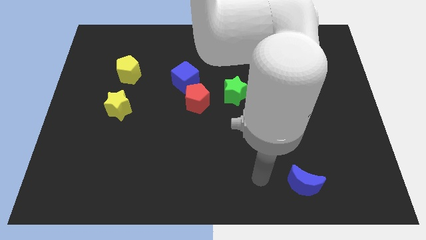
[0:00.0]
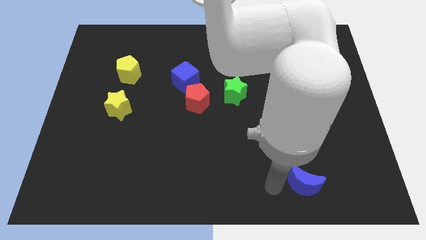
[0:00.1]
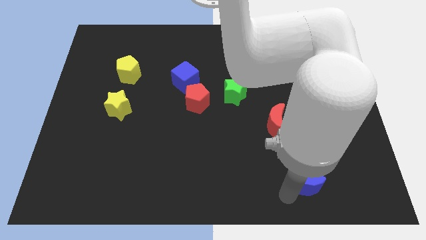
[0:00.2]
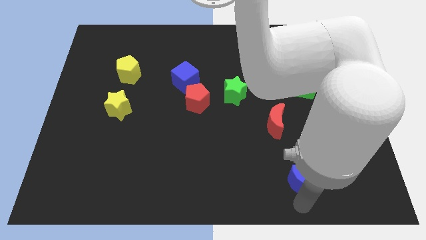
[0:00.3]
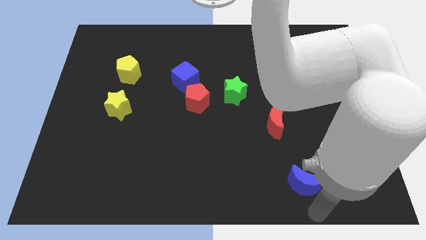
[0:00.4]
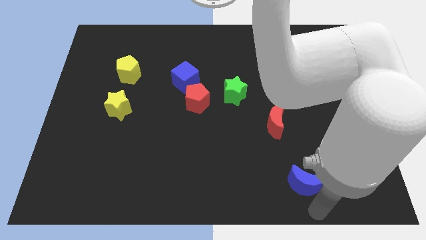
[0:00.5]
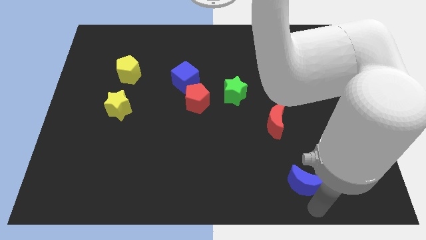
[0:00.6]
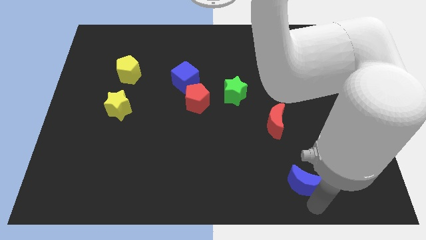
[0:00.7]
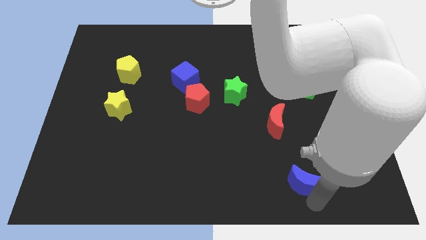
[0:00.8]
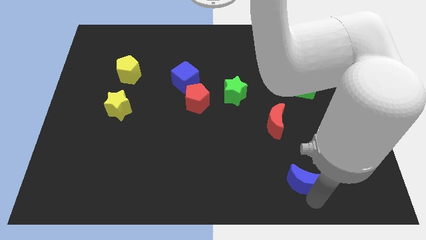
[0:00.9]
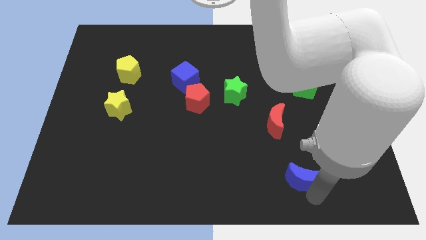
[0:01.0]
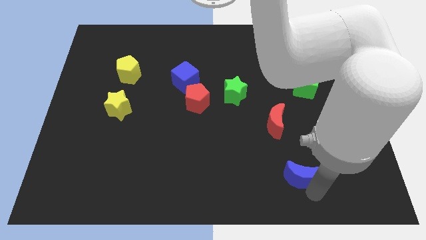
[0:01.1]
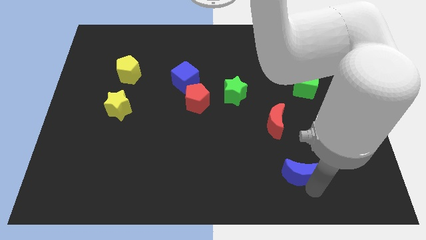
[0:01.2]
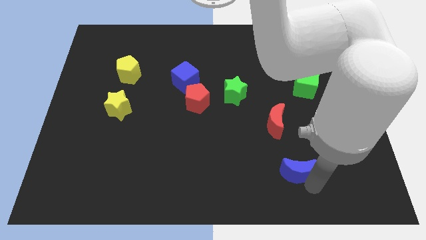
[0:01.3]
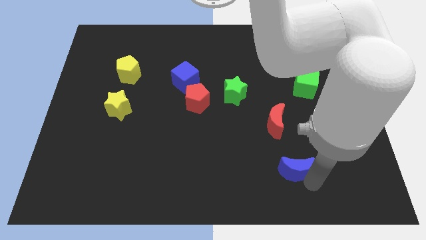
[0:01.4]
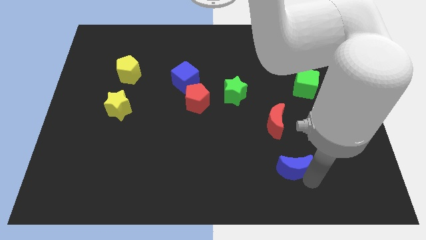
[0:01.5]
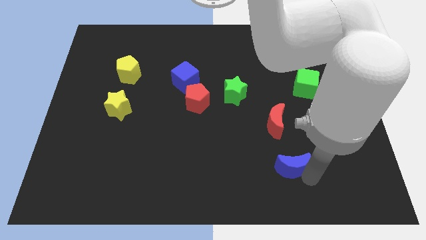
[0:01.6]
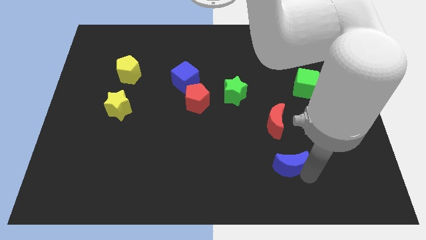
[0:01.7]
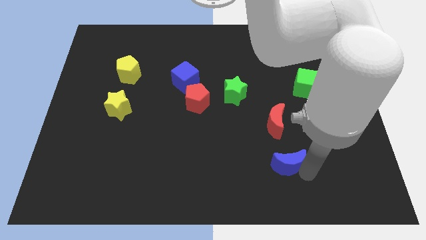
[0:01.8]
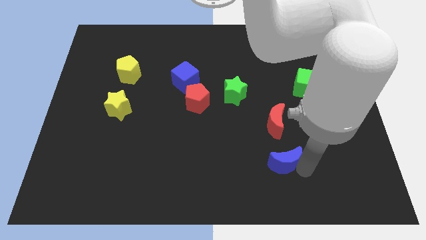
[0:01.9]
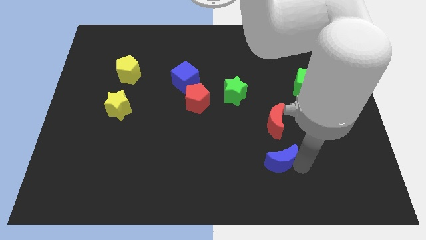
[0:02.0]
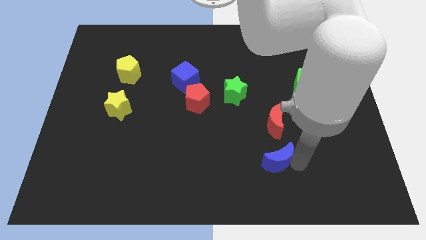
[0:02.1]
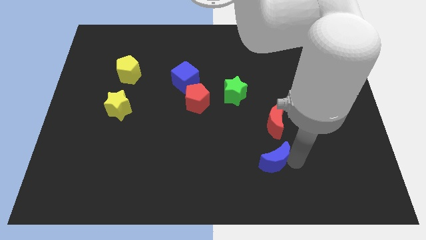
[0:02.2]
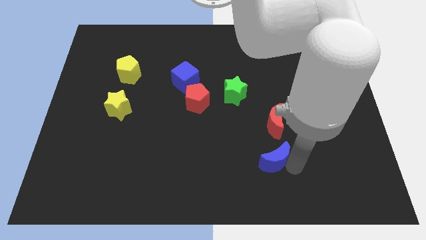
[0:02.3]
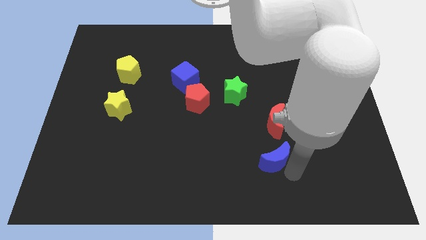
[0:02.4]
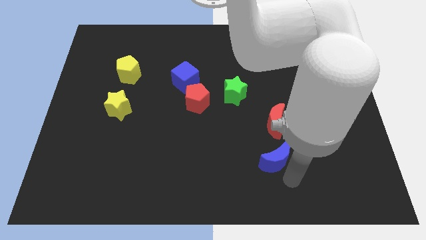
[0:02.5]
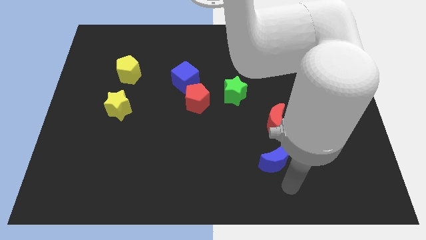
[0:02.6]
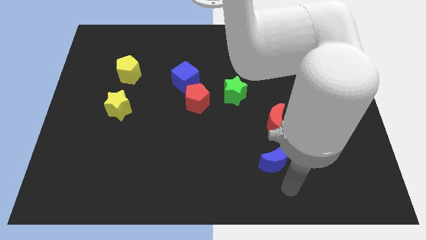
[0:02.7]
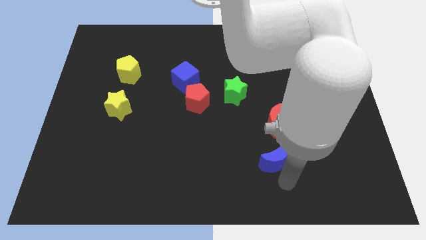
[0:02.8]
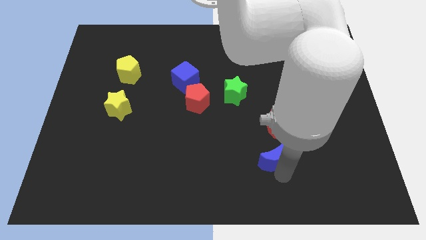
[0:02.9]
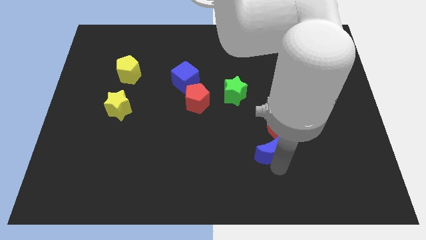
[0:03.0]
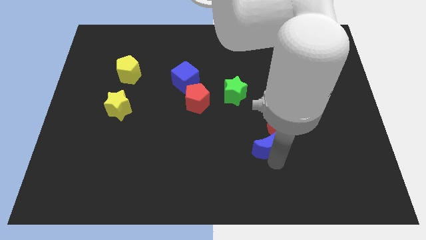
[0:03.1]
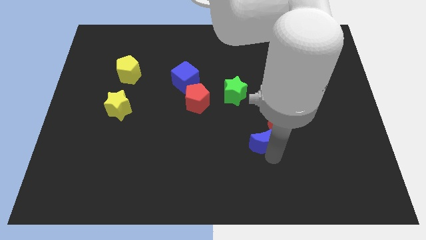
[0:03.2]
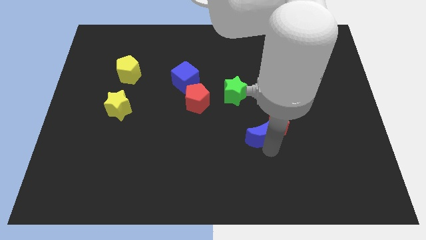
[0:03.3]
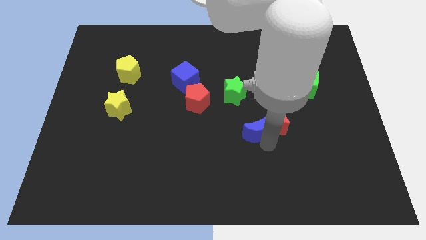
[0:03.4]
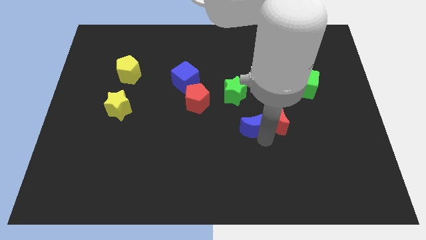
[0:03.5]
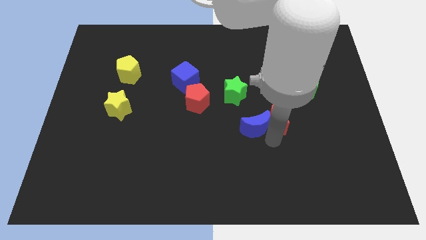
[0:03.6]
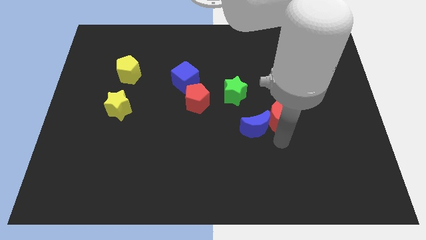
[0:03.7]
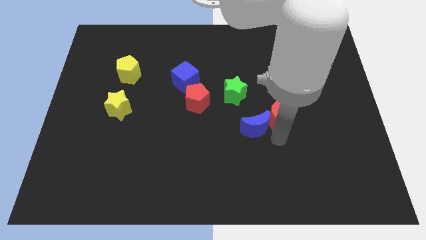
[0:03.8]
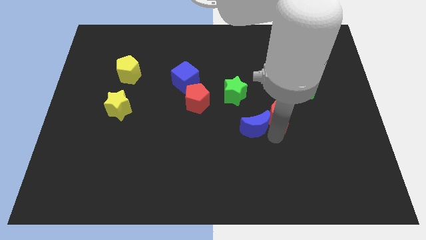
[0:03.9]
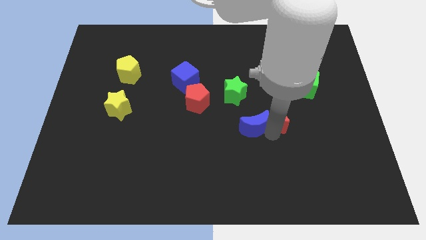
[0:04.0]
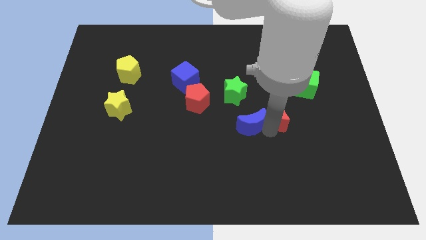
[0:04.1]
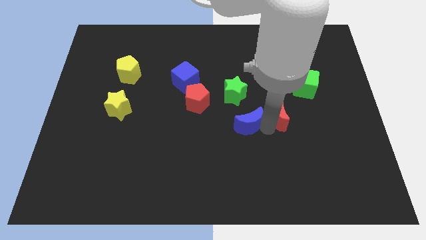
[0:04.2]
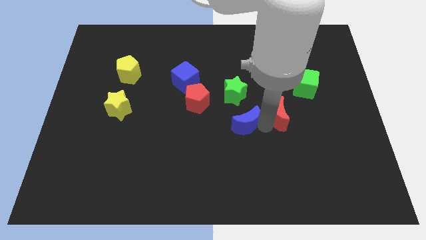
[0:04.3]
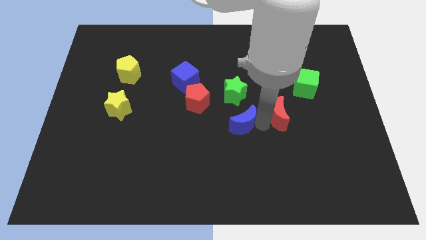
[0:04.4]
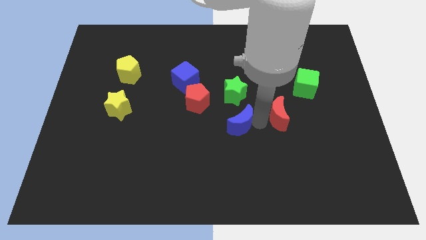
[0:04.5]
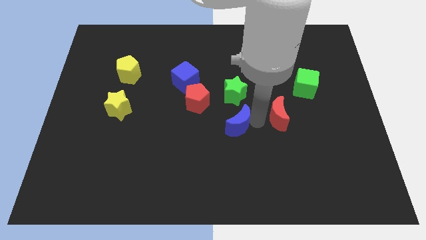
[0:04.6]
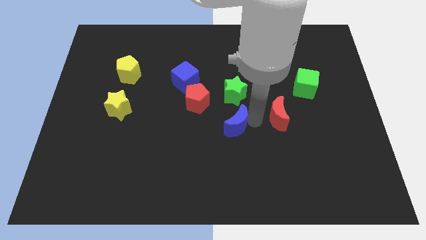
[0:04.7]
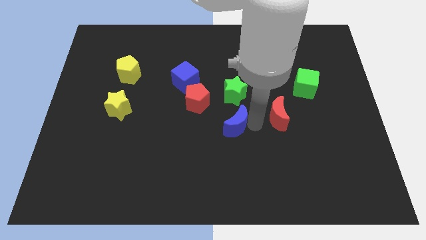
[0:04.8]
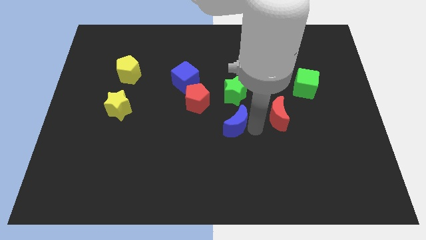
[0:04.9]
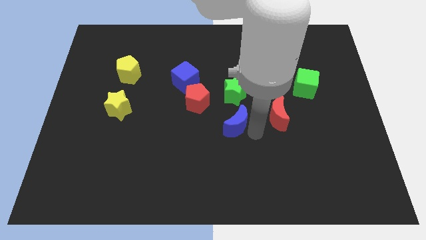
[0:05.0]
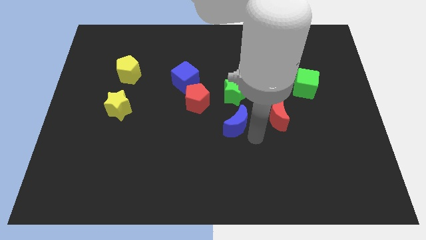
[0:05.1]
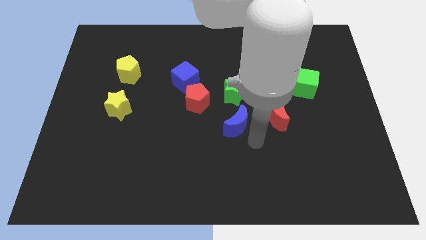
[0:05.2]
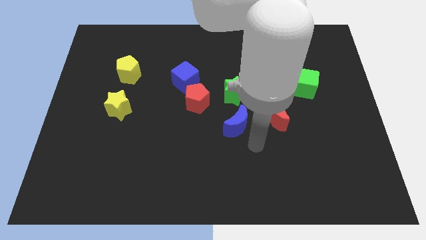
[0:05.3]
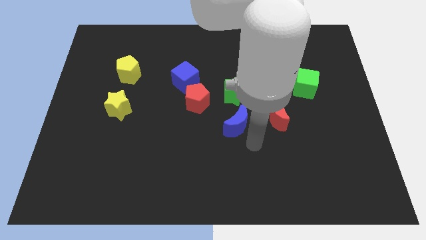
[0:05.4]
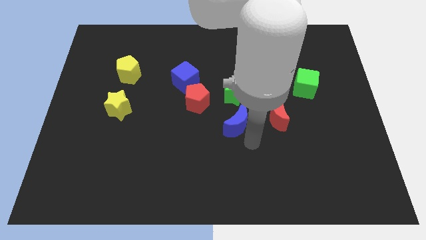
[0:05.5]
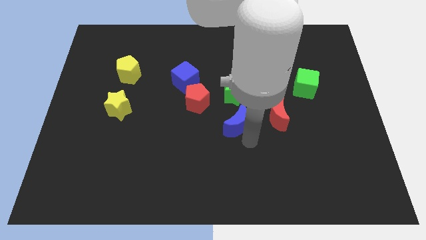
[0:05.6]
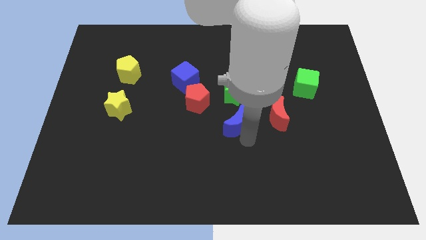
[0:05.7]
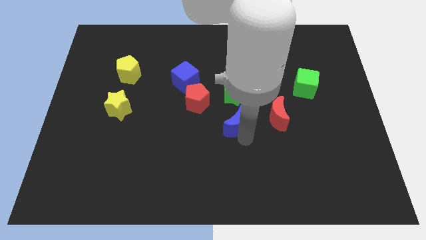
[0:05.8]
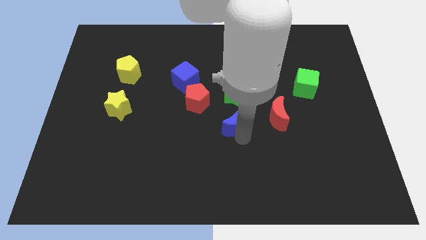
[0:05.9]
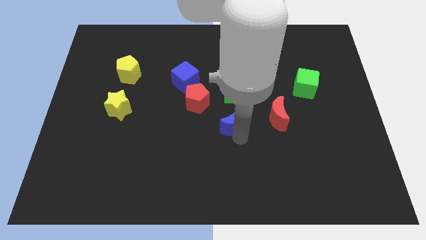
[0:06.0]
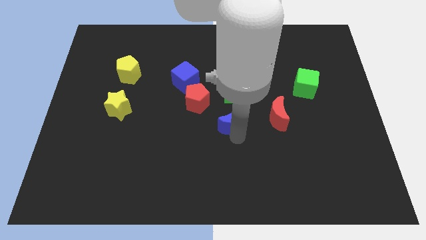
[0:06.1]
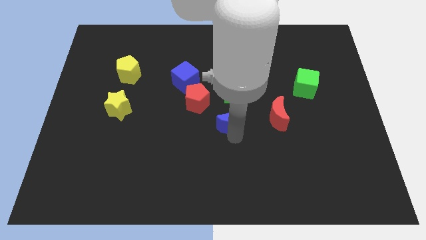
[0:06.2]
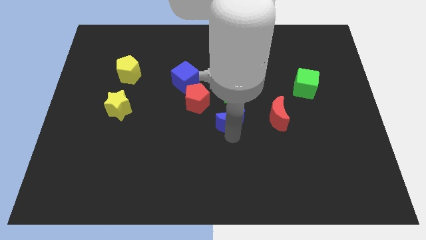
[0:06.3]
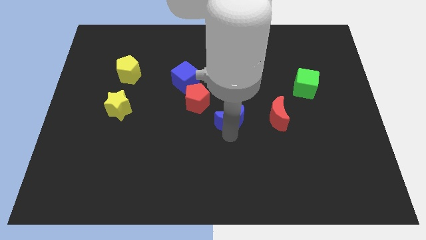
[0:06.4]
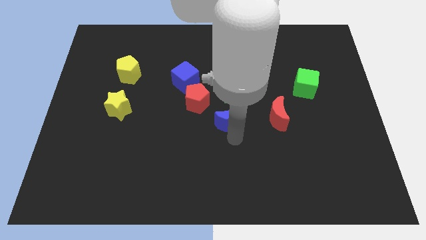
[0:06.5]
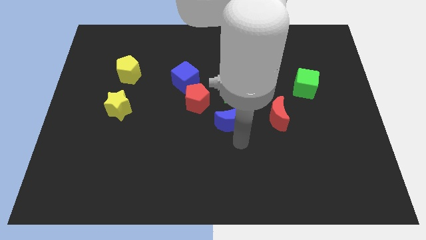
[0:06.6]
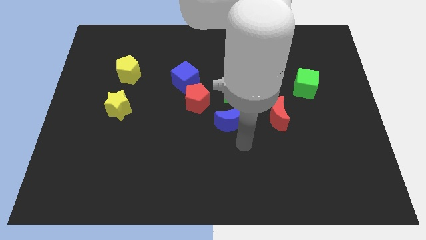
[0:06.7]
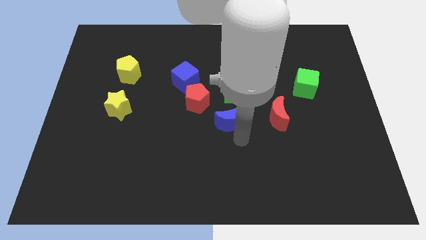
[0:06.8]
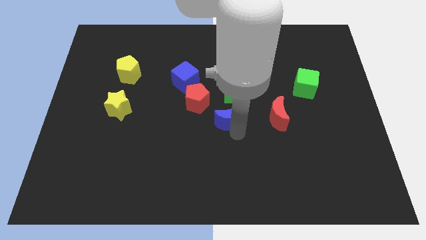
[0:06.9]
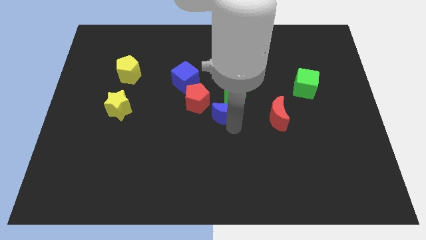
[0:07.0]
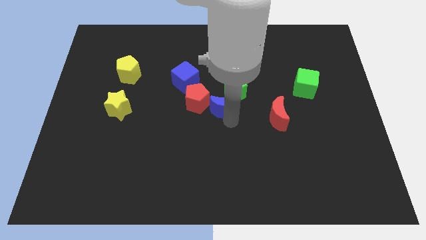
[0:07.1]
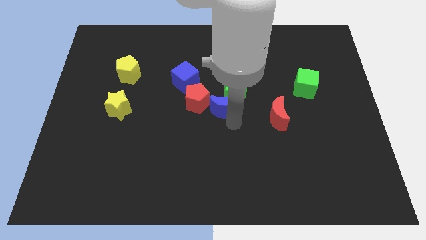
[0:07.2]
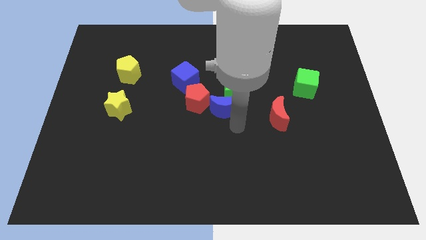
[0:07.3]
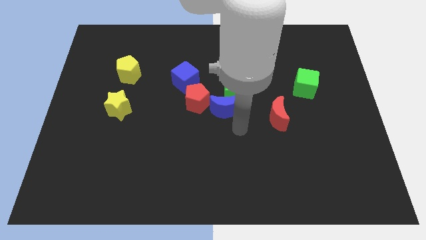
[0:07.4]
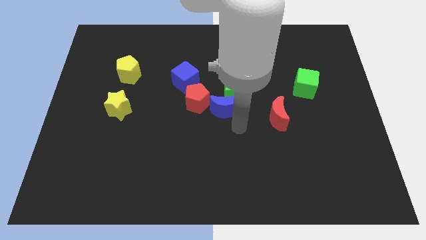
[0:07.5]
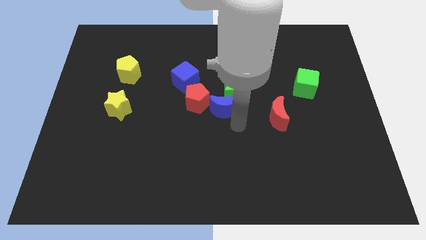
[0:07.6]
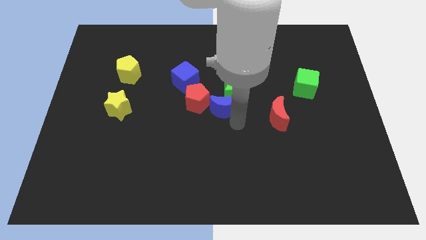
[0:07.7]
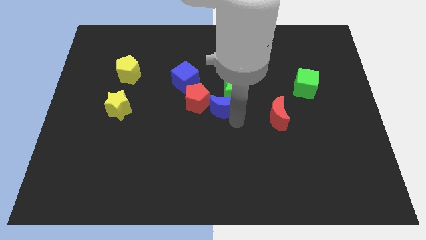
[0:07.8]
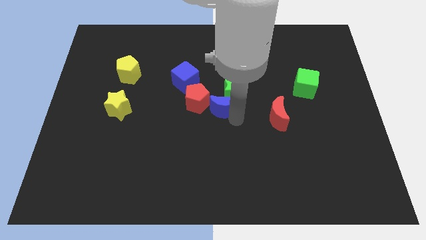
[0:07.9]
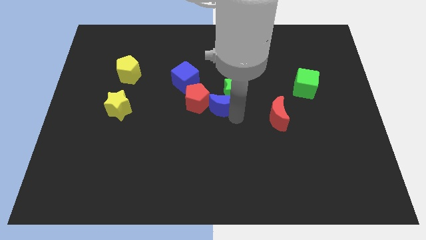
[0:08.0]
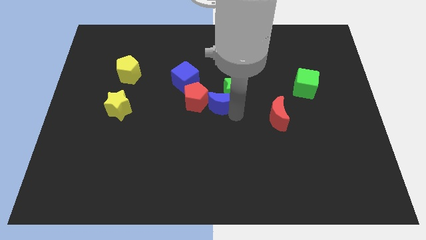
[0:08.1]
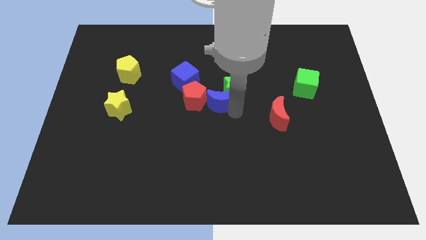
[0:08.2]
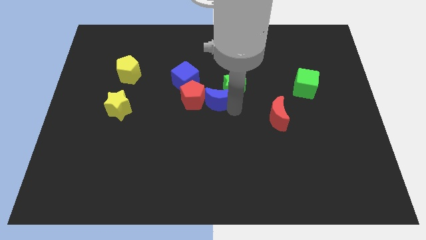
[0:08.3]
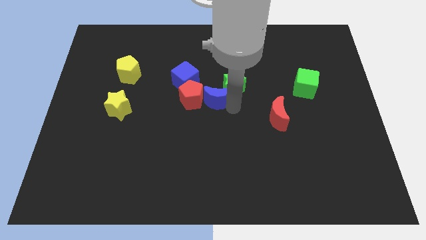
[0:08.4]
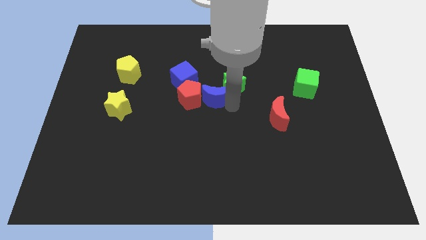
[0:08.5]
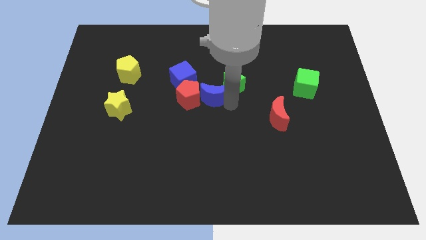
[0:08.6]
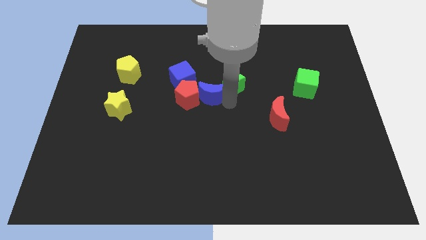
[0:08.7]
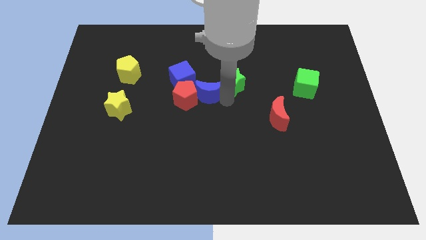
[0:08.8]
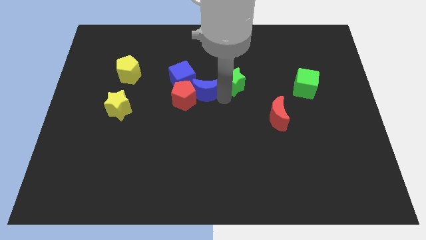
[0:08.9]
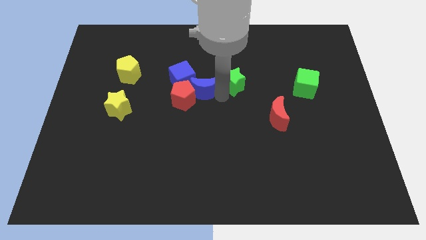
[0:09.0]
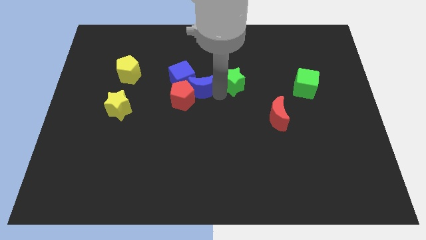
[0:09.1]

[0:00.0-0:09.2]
move the blue moon close to the blue cube
